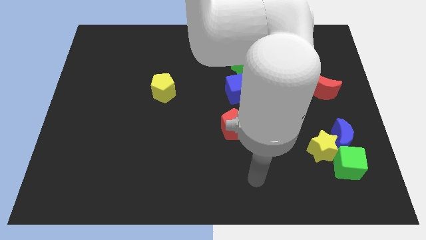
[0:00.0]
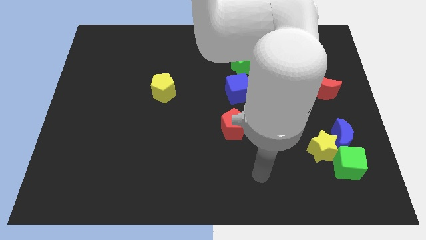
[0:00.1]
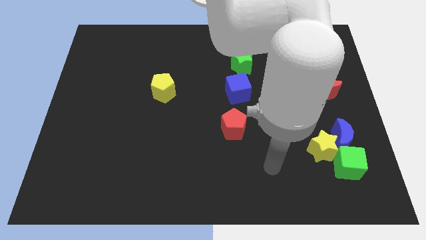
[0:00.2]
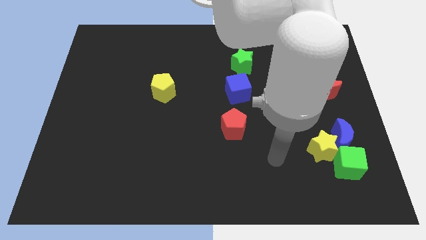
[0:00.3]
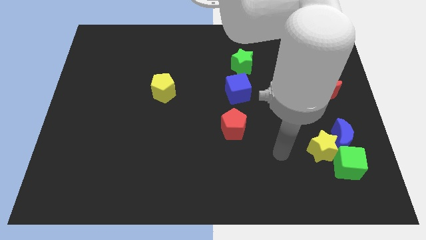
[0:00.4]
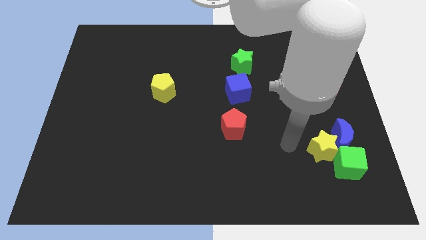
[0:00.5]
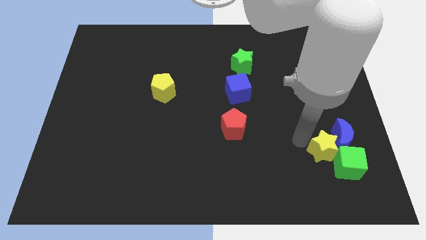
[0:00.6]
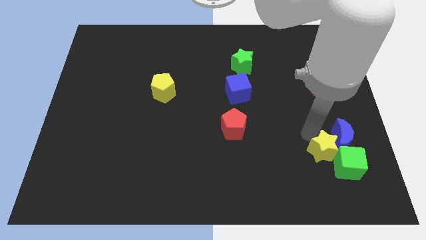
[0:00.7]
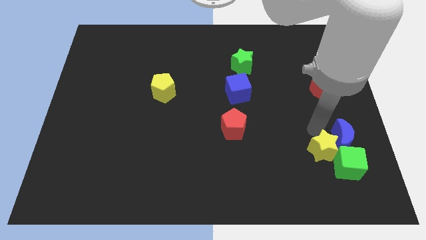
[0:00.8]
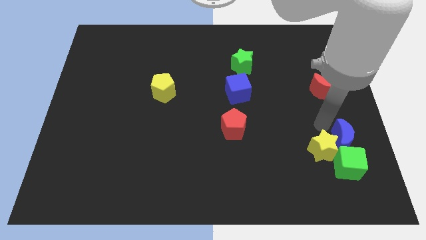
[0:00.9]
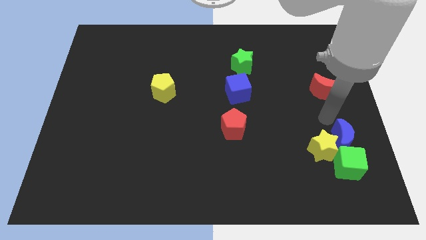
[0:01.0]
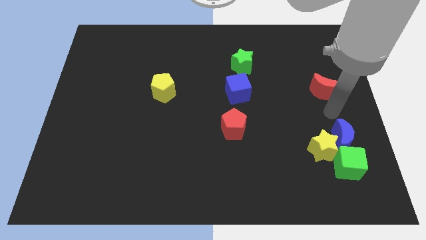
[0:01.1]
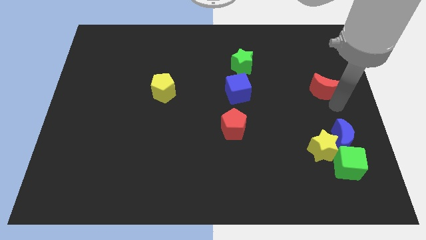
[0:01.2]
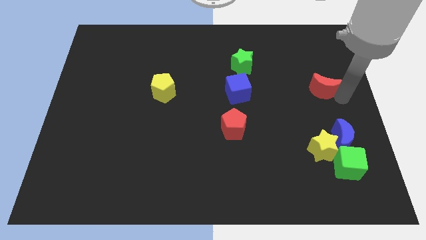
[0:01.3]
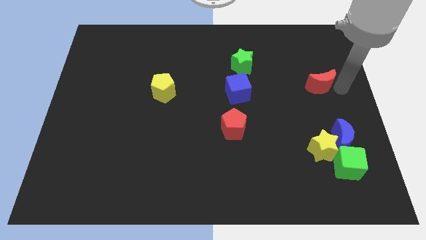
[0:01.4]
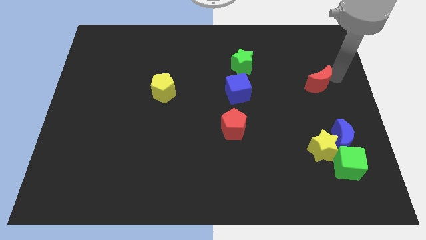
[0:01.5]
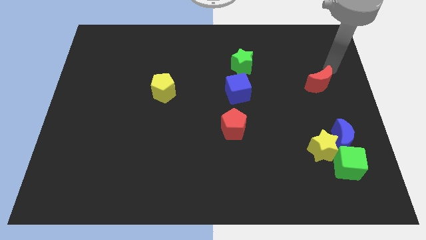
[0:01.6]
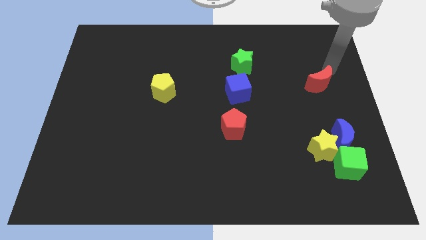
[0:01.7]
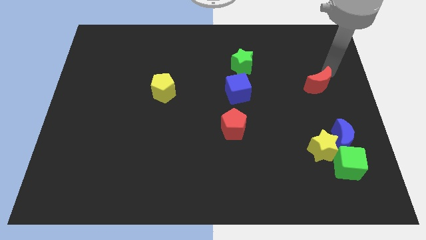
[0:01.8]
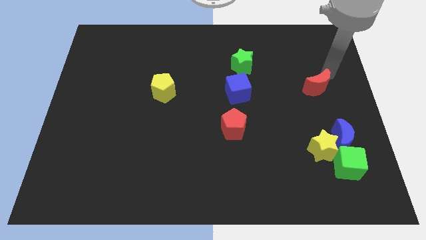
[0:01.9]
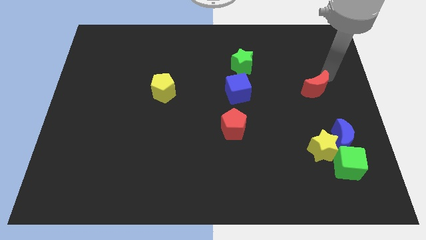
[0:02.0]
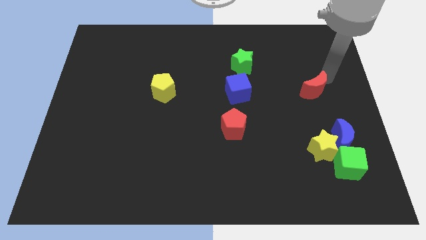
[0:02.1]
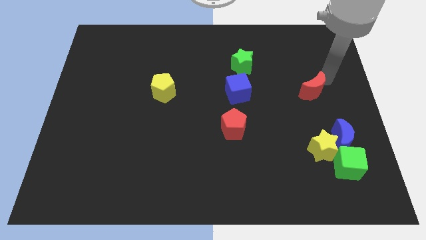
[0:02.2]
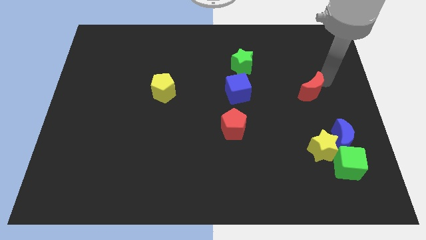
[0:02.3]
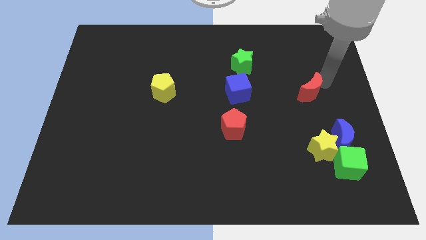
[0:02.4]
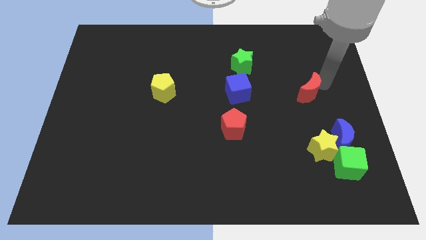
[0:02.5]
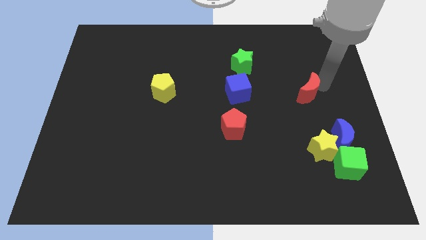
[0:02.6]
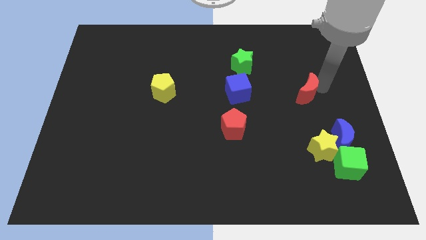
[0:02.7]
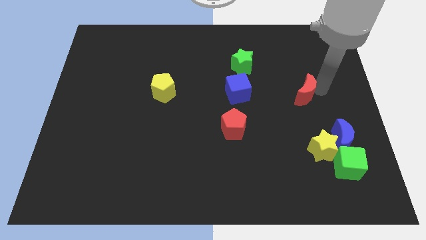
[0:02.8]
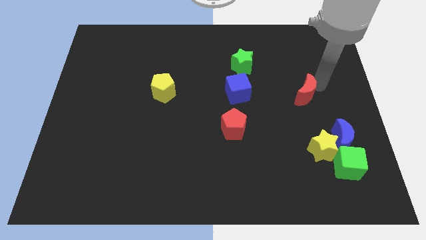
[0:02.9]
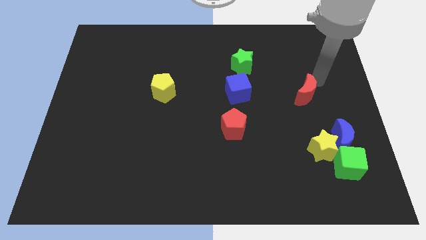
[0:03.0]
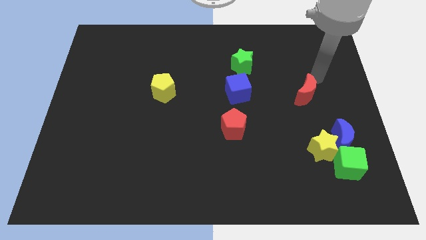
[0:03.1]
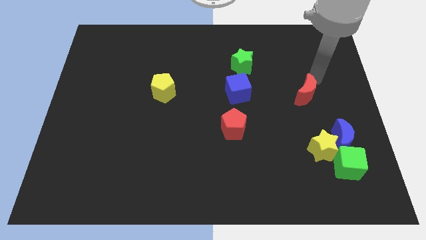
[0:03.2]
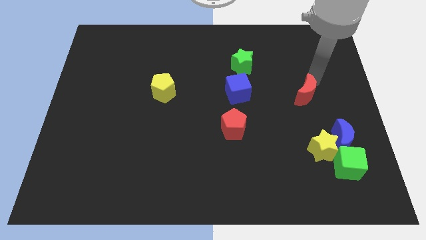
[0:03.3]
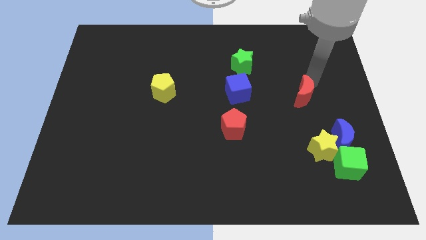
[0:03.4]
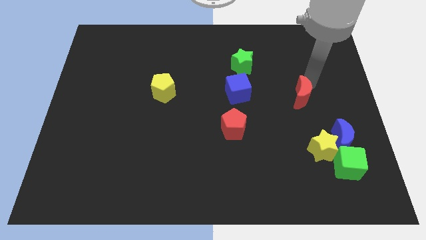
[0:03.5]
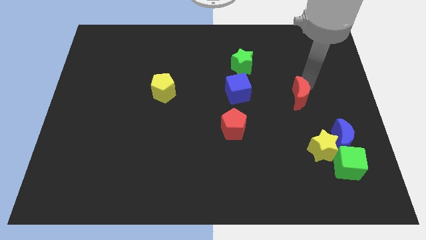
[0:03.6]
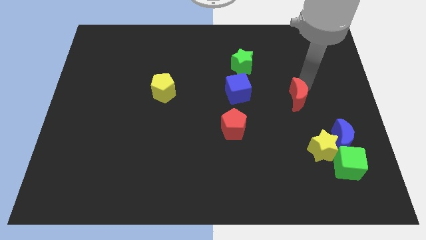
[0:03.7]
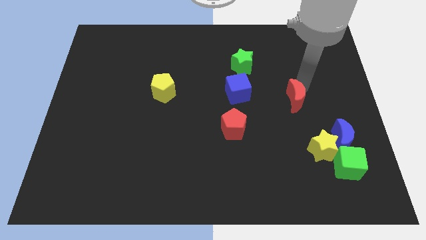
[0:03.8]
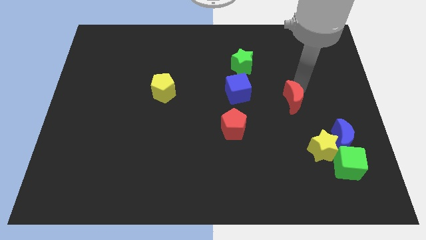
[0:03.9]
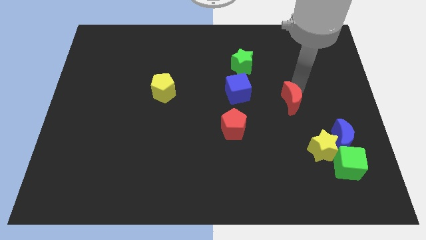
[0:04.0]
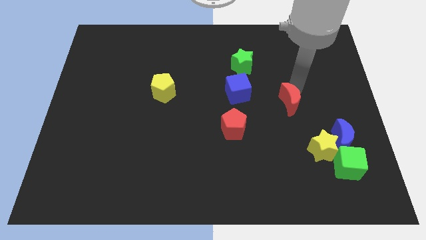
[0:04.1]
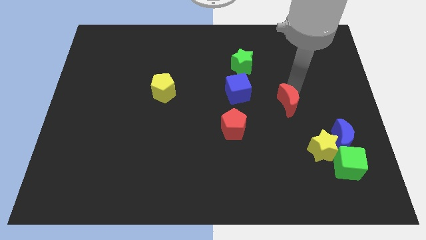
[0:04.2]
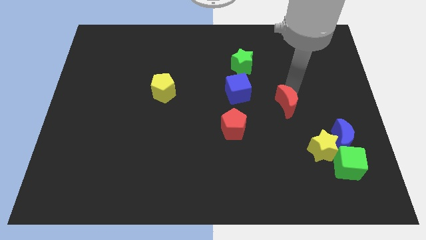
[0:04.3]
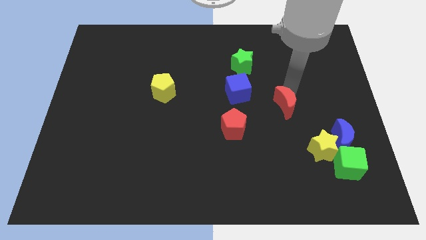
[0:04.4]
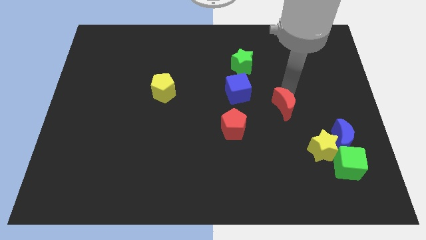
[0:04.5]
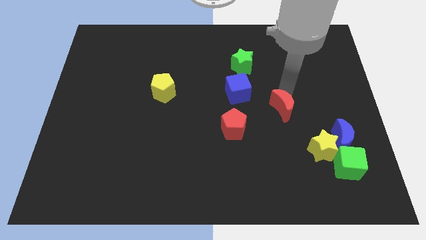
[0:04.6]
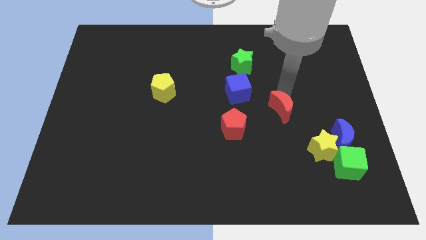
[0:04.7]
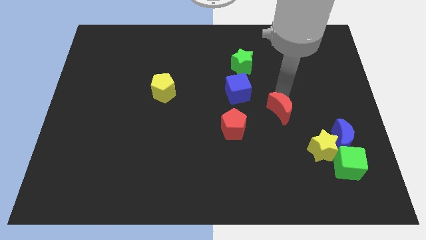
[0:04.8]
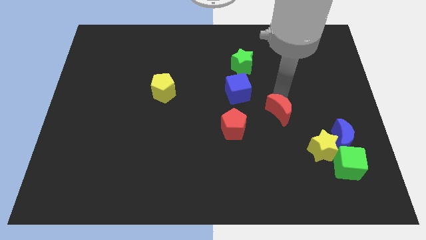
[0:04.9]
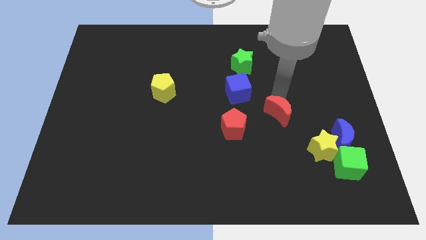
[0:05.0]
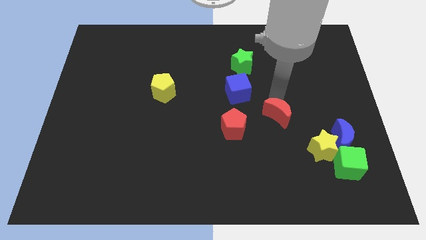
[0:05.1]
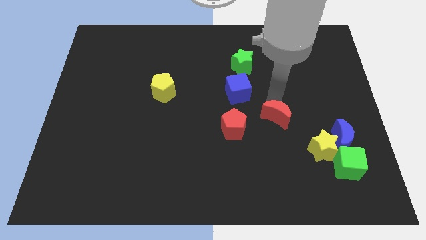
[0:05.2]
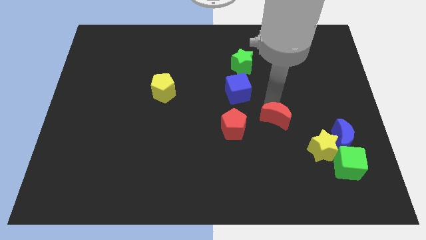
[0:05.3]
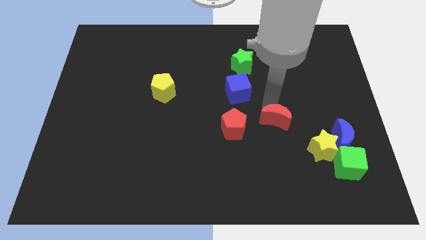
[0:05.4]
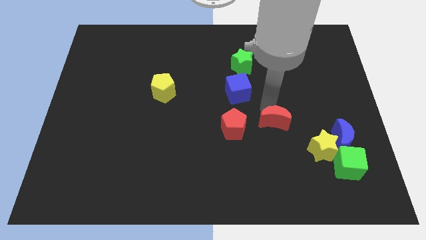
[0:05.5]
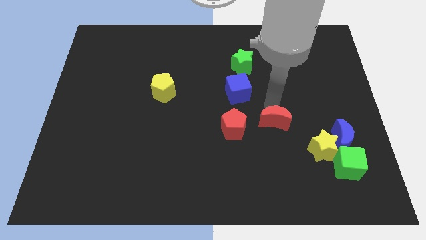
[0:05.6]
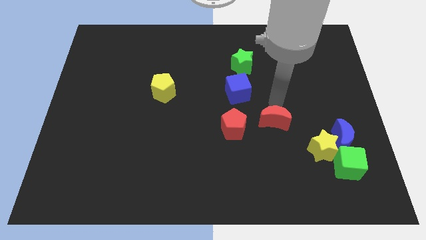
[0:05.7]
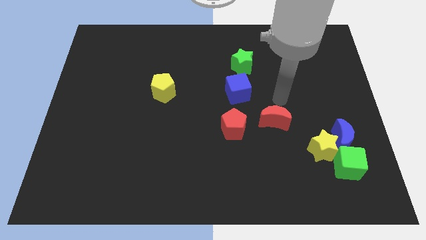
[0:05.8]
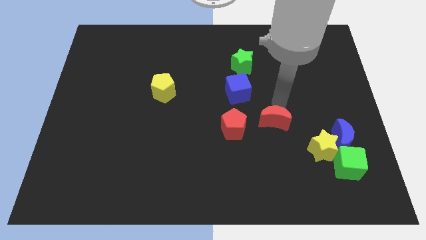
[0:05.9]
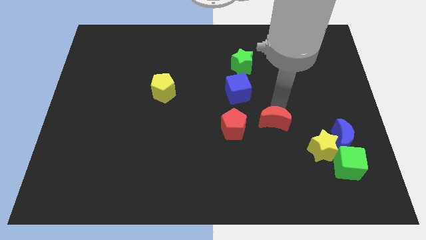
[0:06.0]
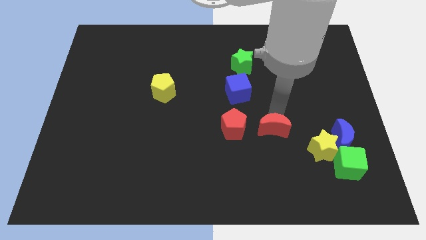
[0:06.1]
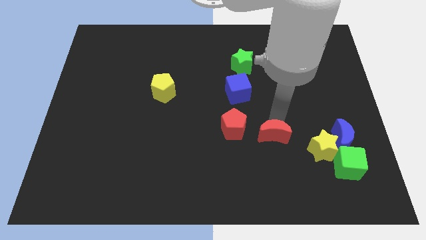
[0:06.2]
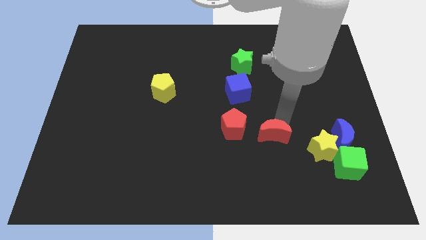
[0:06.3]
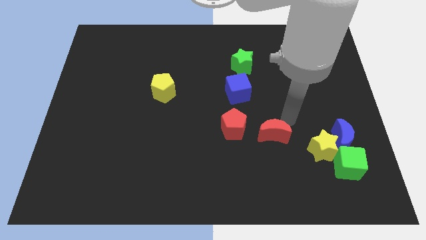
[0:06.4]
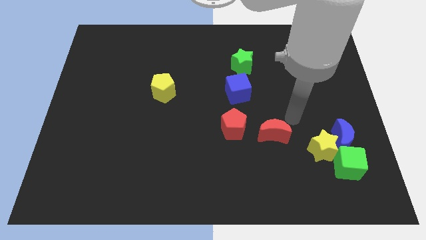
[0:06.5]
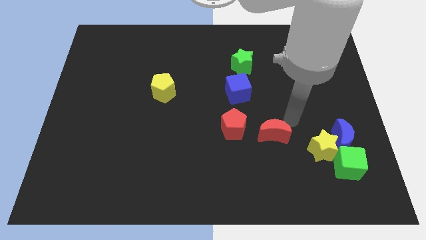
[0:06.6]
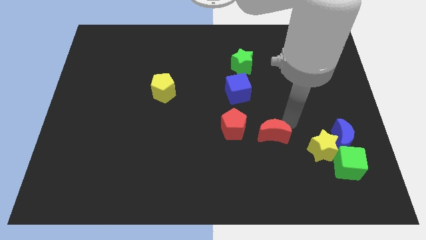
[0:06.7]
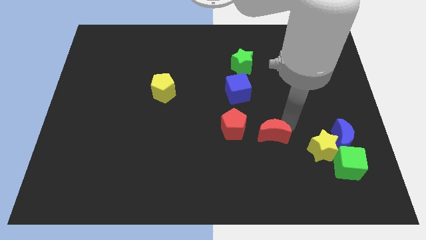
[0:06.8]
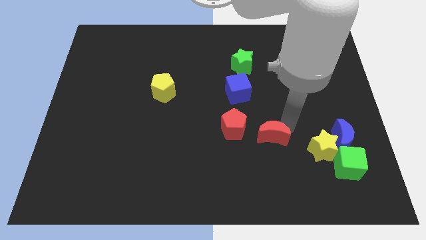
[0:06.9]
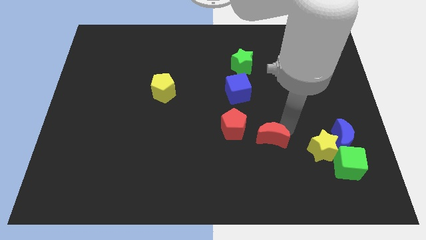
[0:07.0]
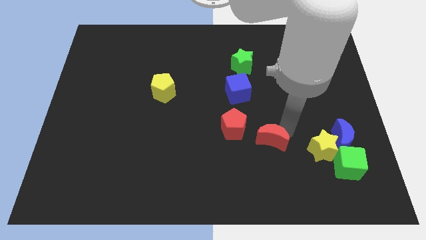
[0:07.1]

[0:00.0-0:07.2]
slide the red moon down and left

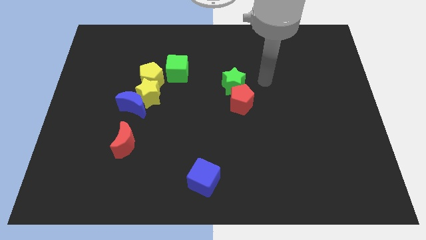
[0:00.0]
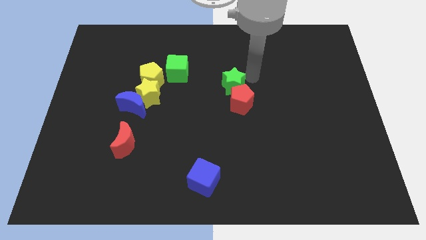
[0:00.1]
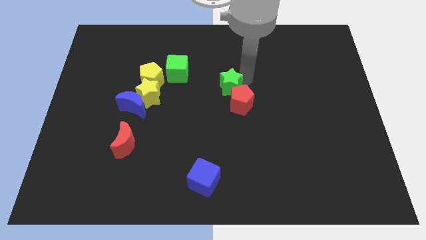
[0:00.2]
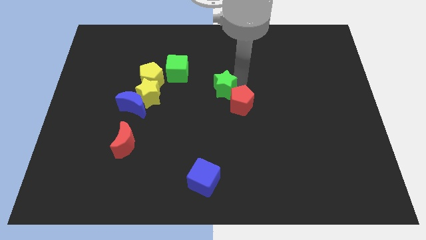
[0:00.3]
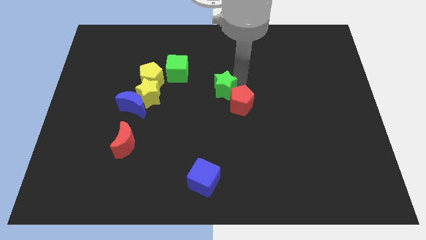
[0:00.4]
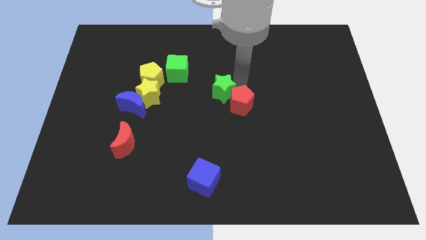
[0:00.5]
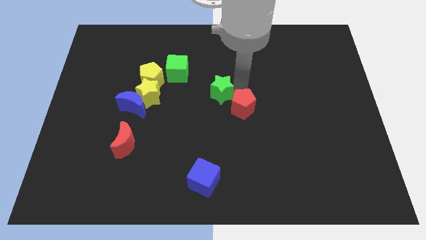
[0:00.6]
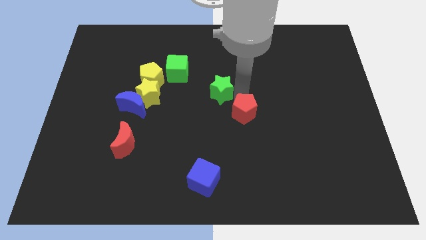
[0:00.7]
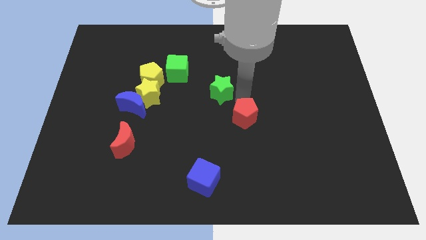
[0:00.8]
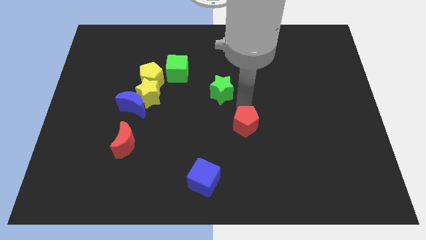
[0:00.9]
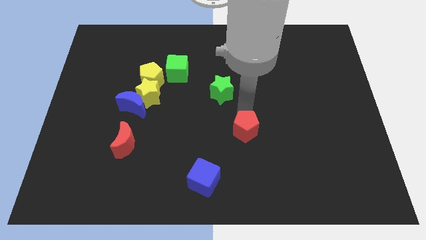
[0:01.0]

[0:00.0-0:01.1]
slightly push the red pentagon downwards
